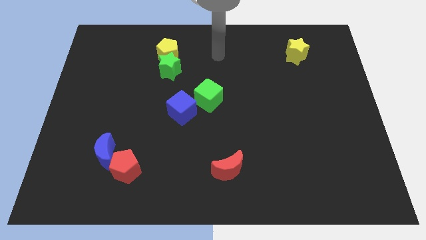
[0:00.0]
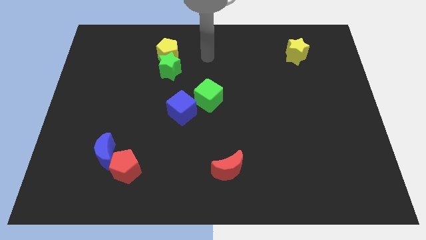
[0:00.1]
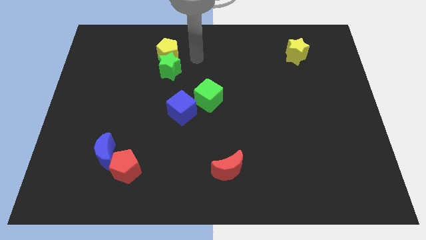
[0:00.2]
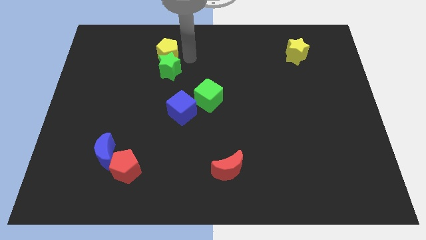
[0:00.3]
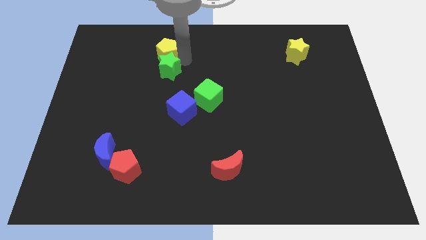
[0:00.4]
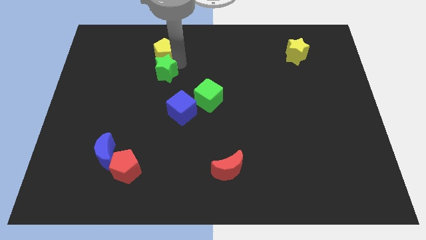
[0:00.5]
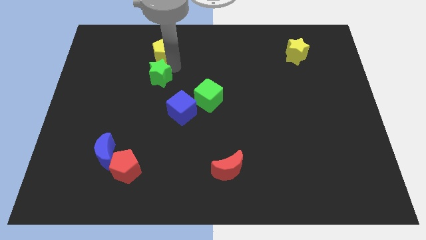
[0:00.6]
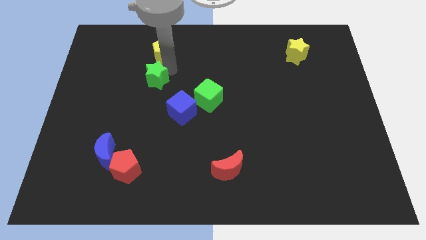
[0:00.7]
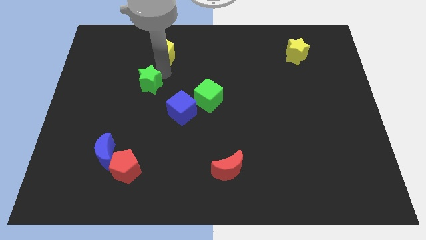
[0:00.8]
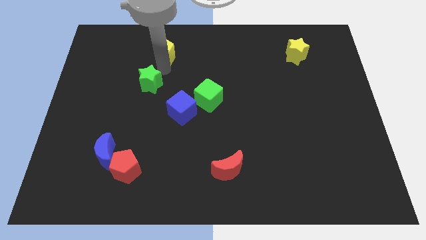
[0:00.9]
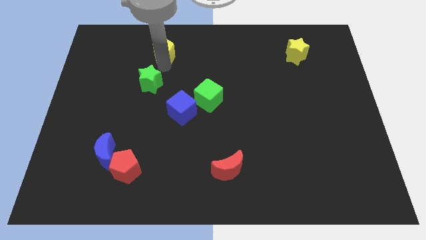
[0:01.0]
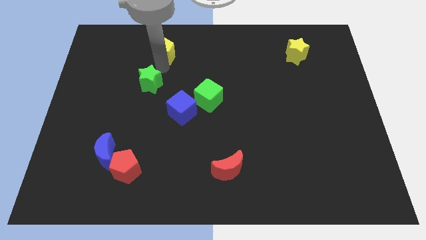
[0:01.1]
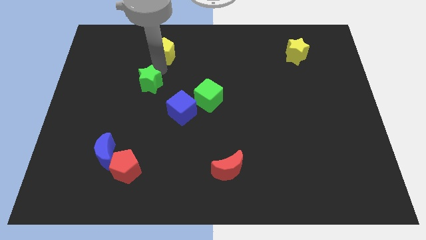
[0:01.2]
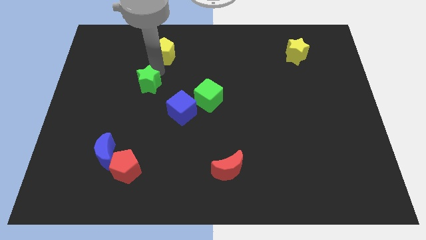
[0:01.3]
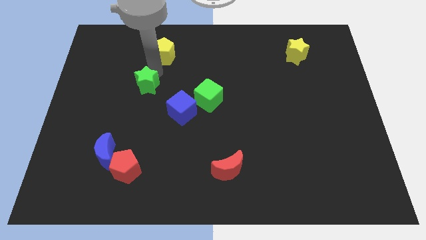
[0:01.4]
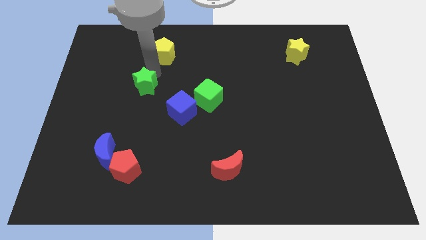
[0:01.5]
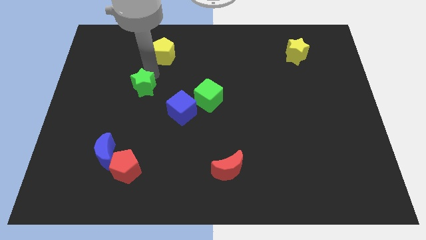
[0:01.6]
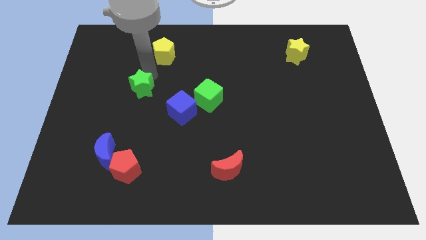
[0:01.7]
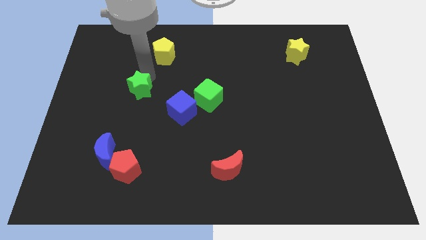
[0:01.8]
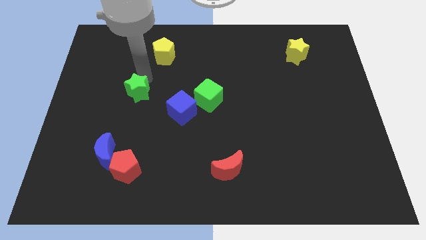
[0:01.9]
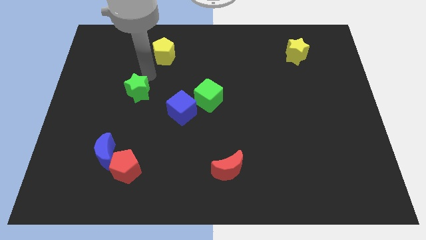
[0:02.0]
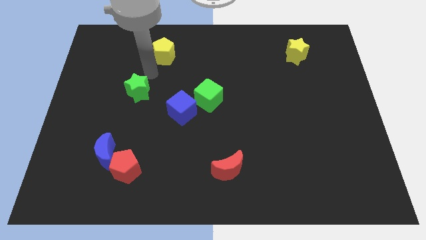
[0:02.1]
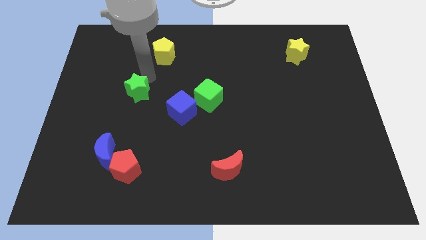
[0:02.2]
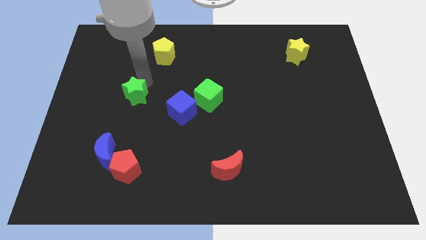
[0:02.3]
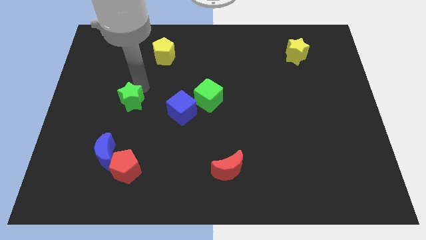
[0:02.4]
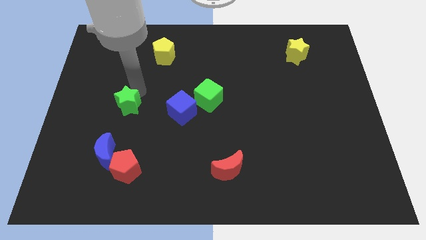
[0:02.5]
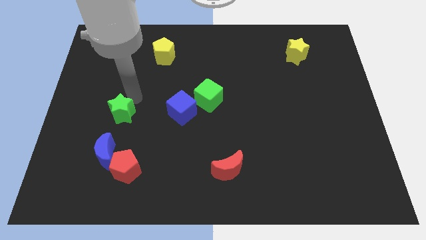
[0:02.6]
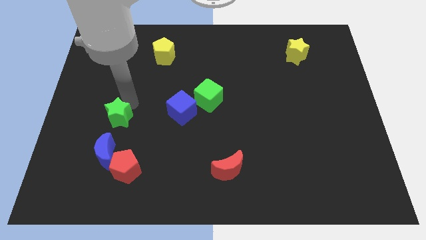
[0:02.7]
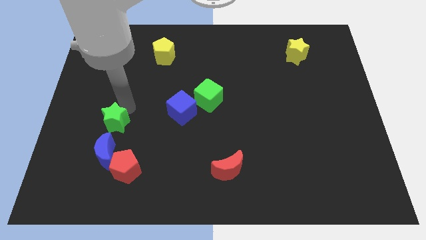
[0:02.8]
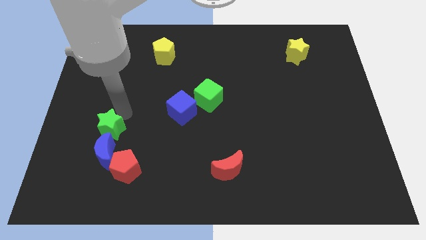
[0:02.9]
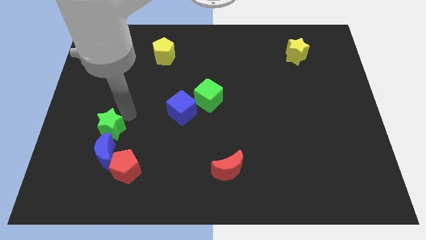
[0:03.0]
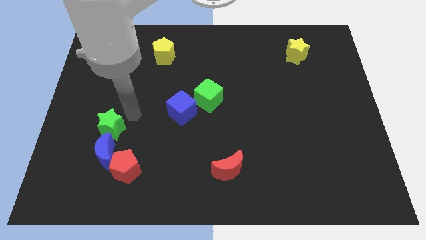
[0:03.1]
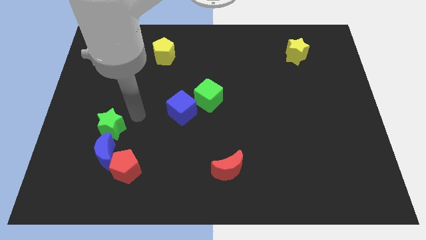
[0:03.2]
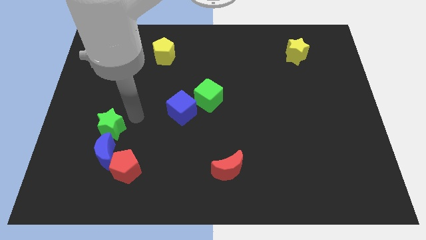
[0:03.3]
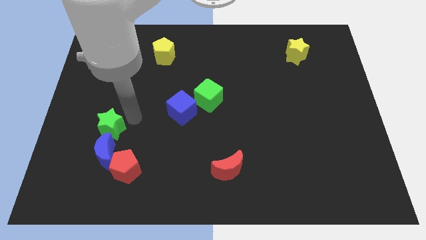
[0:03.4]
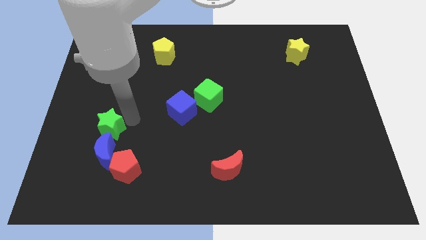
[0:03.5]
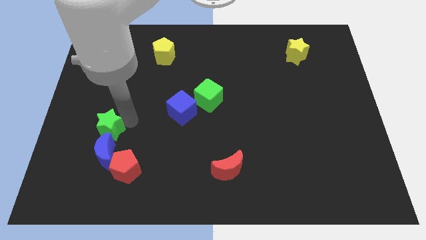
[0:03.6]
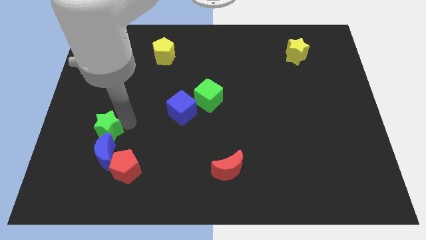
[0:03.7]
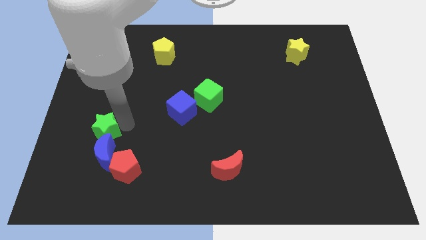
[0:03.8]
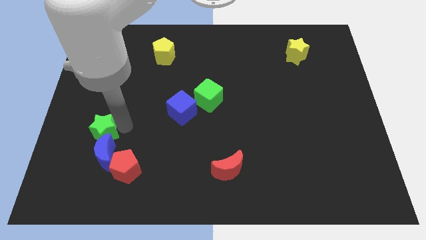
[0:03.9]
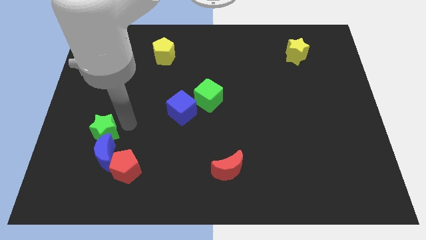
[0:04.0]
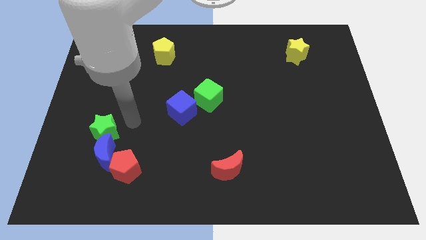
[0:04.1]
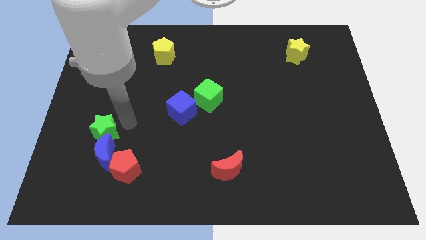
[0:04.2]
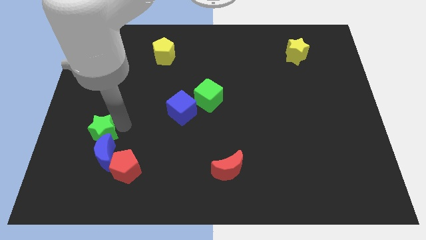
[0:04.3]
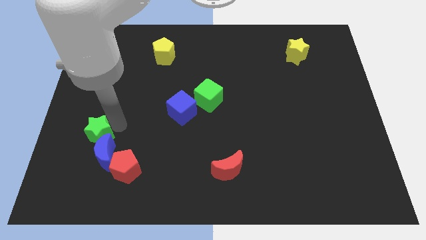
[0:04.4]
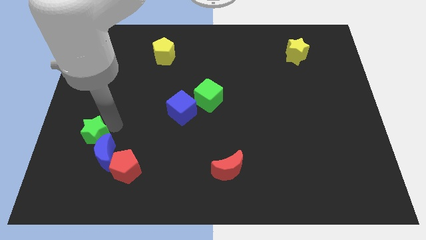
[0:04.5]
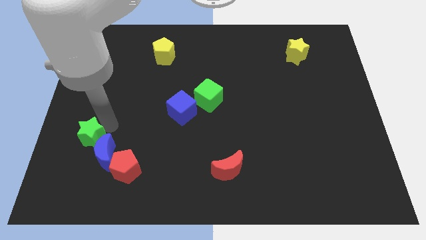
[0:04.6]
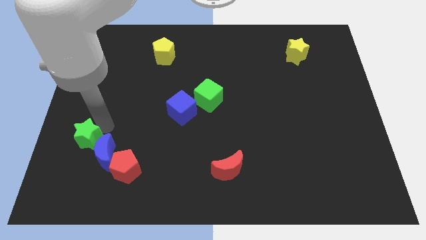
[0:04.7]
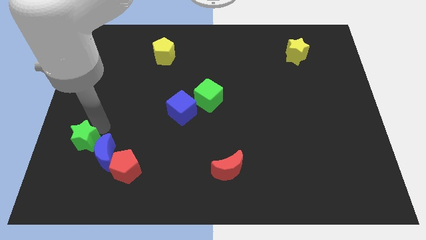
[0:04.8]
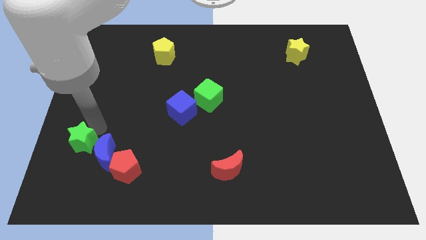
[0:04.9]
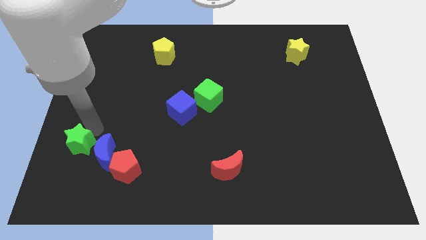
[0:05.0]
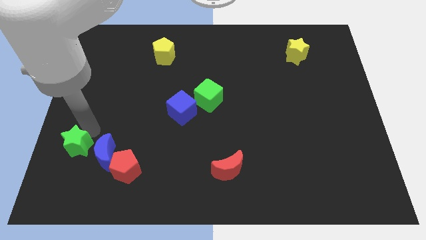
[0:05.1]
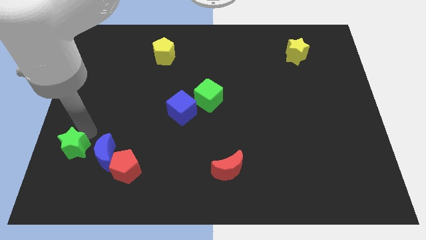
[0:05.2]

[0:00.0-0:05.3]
move the green star to the left of the red pentagon

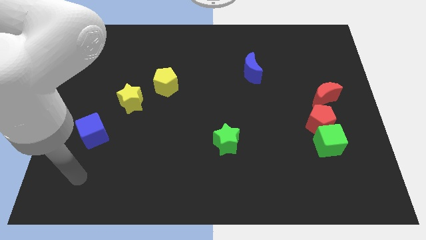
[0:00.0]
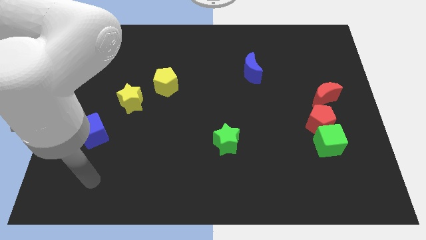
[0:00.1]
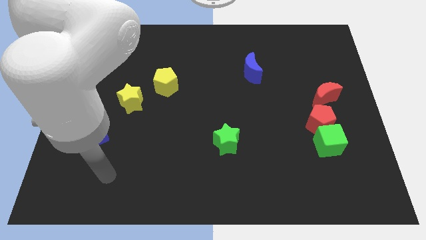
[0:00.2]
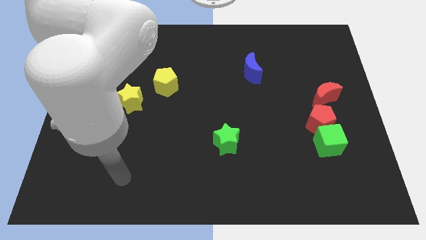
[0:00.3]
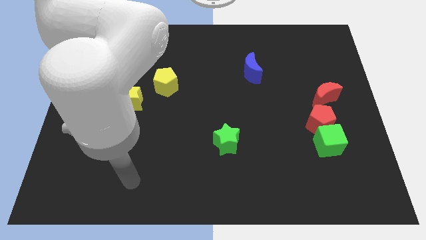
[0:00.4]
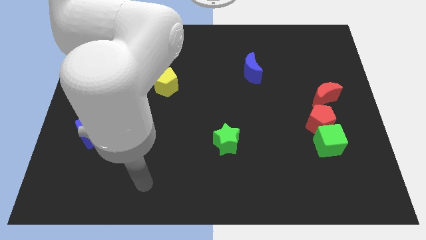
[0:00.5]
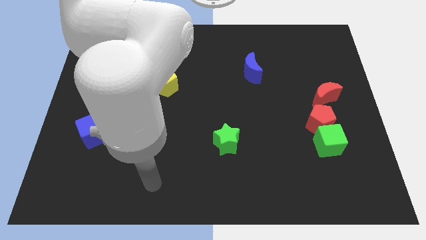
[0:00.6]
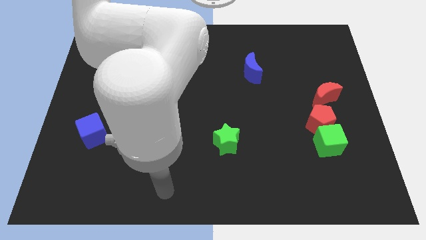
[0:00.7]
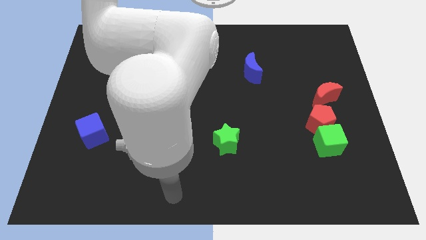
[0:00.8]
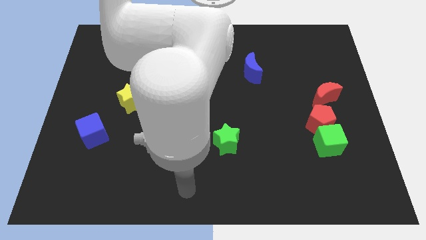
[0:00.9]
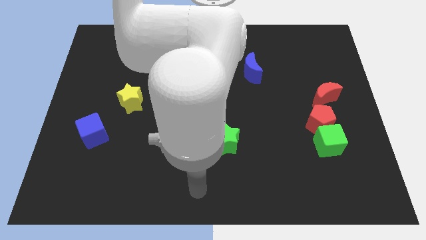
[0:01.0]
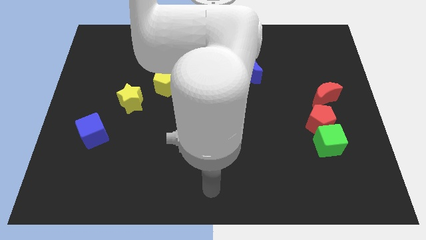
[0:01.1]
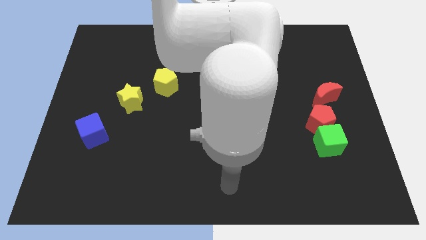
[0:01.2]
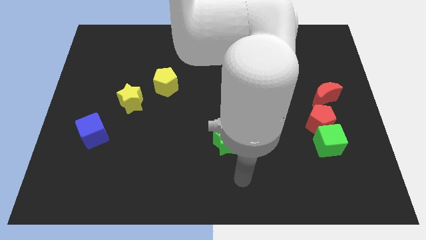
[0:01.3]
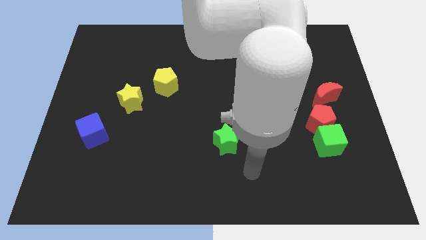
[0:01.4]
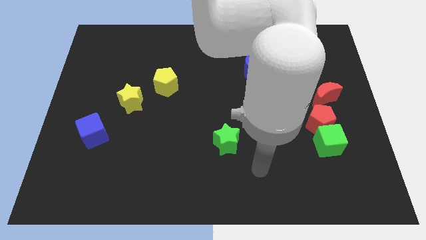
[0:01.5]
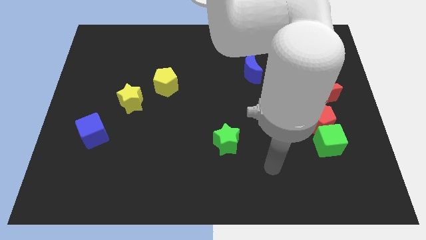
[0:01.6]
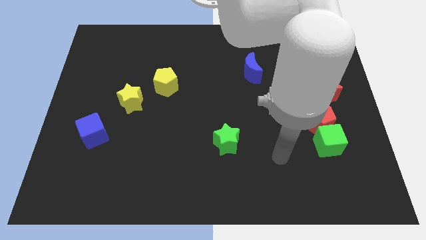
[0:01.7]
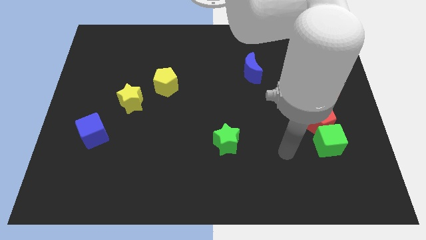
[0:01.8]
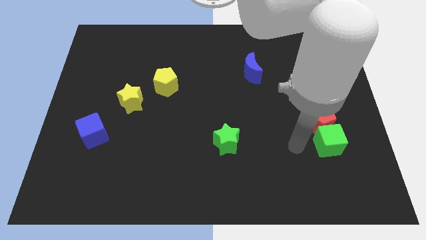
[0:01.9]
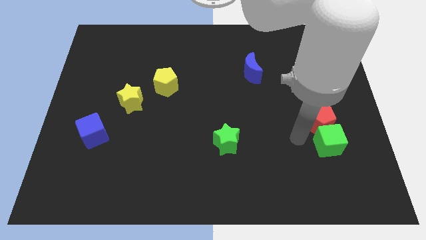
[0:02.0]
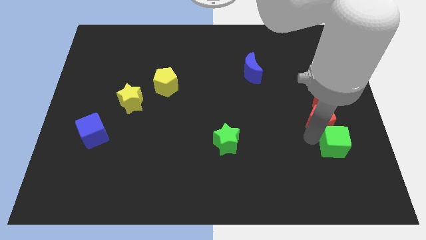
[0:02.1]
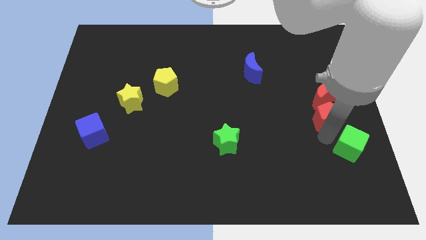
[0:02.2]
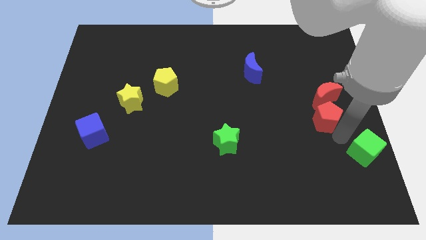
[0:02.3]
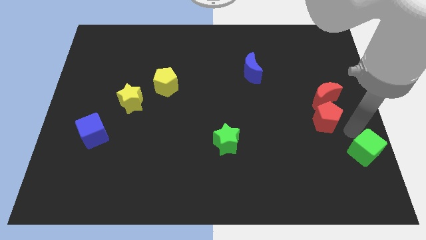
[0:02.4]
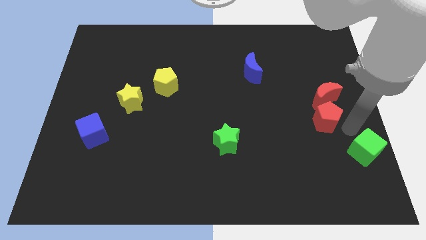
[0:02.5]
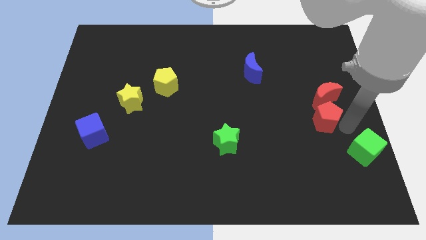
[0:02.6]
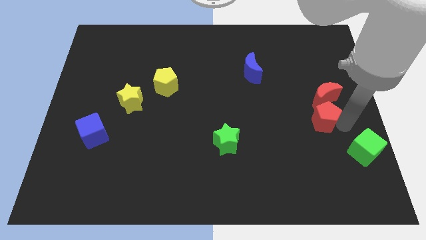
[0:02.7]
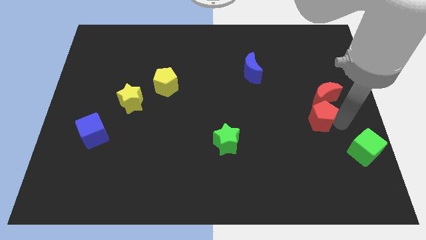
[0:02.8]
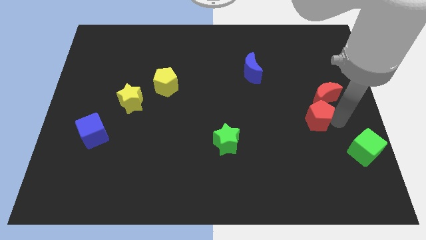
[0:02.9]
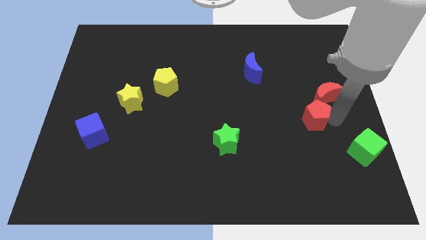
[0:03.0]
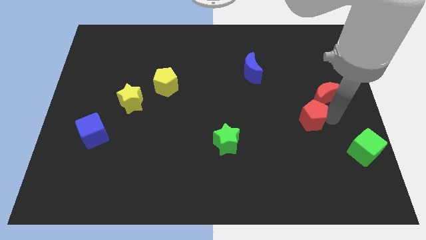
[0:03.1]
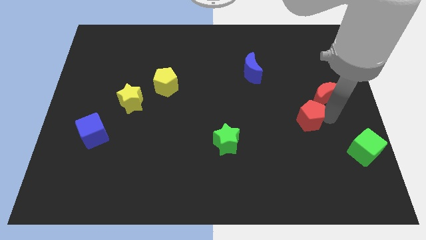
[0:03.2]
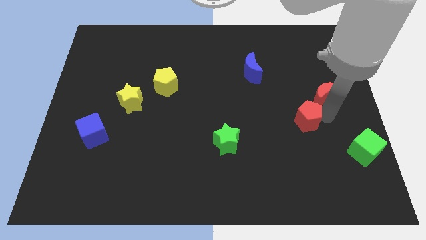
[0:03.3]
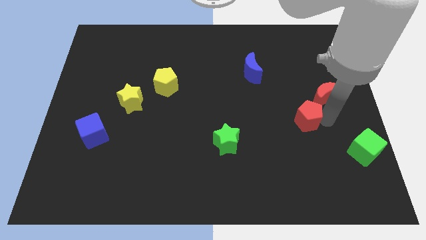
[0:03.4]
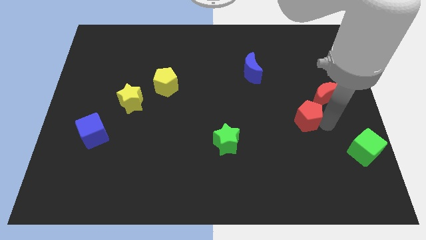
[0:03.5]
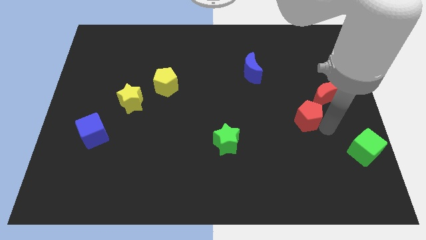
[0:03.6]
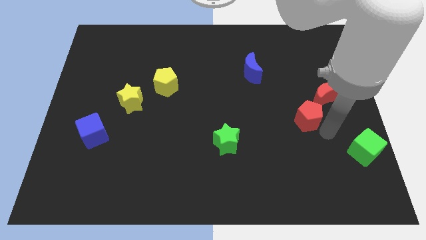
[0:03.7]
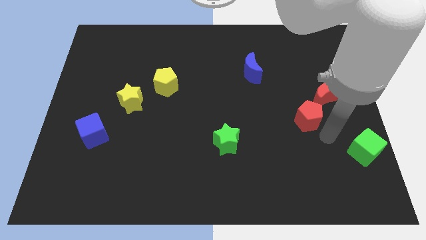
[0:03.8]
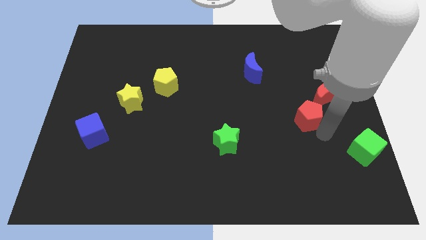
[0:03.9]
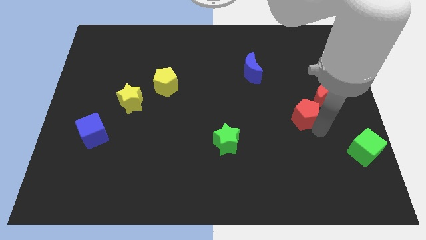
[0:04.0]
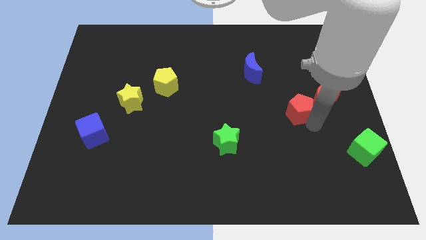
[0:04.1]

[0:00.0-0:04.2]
slide the red pentagon just left of the red moon
